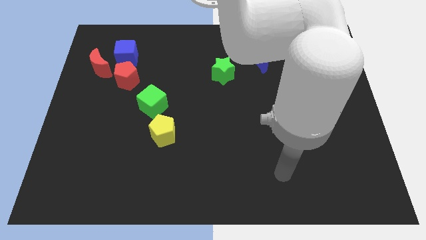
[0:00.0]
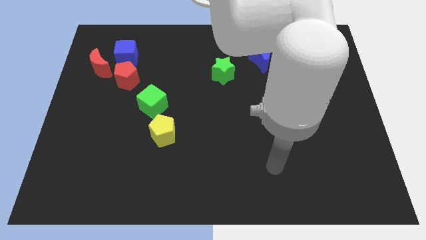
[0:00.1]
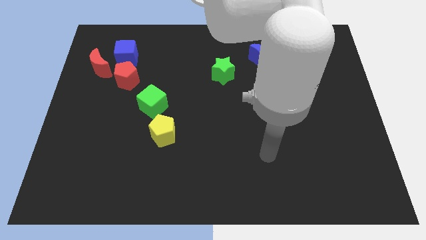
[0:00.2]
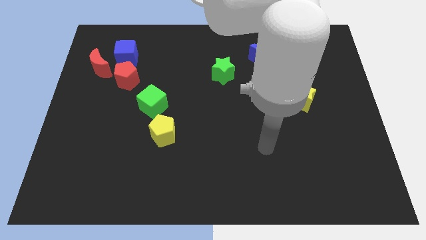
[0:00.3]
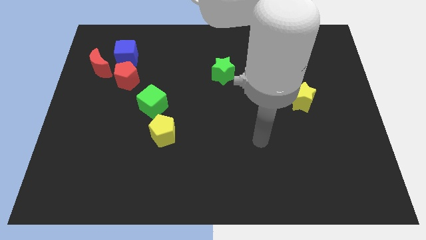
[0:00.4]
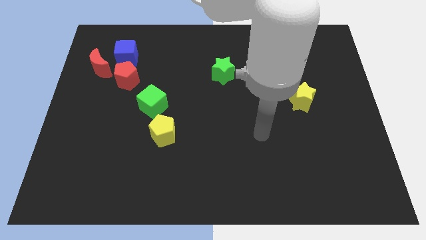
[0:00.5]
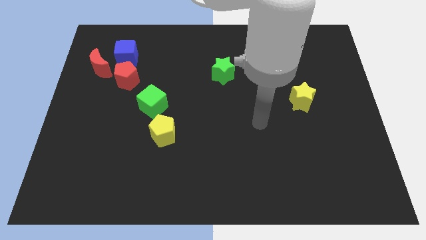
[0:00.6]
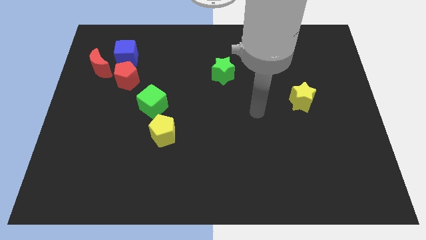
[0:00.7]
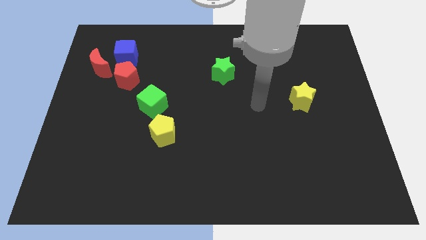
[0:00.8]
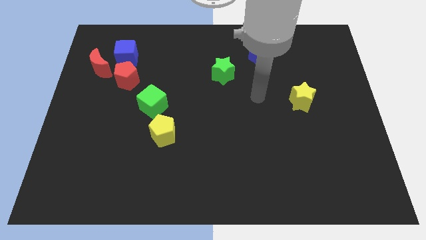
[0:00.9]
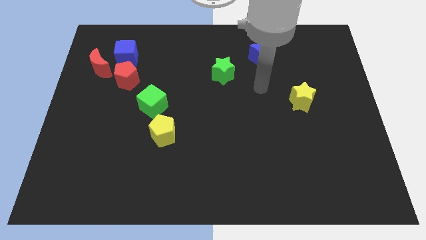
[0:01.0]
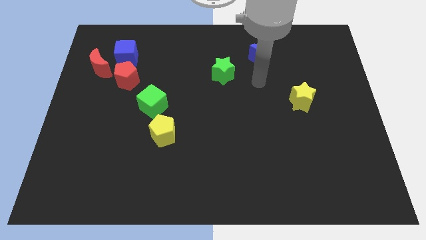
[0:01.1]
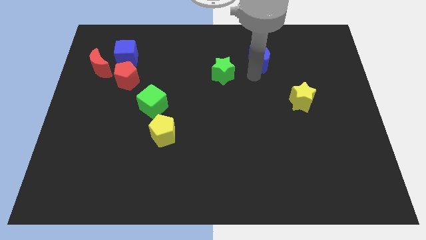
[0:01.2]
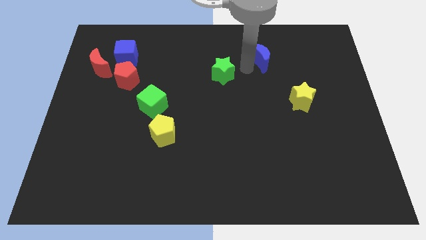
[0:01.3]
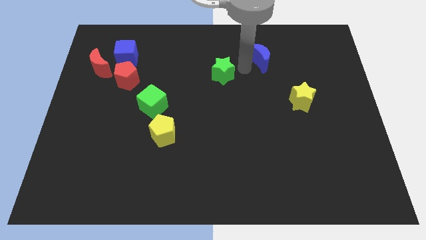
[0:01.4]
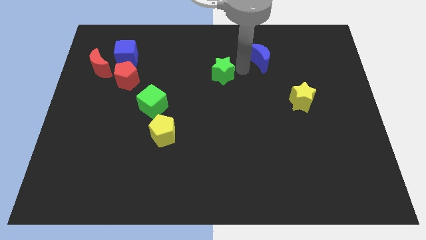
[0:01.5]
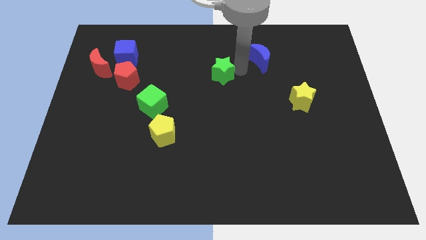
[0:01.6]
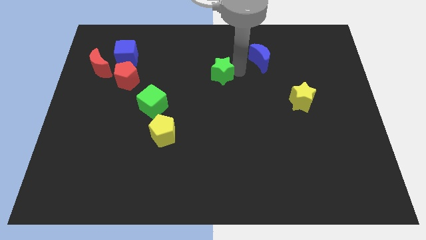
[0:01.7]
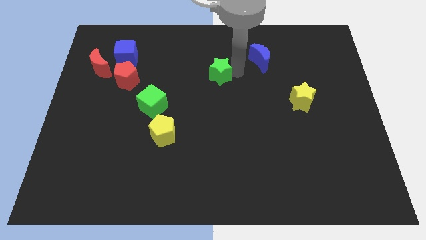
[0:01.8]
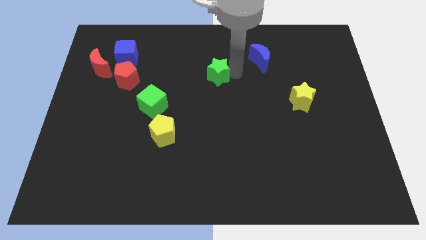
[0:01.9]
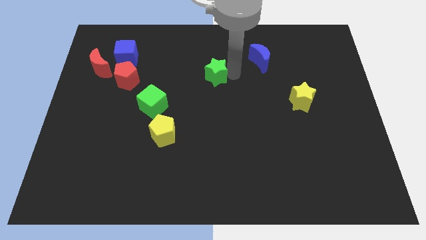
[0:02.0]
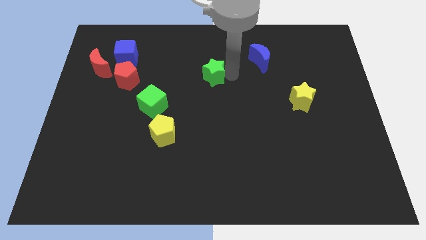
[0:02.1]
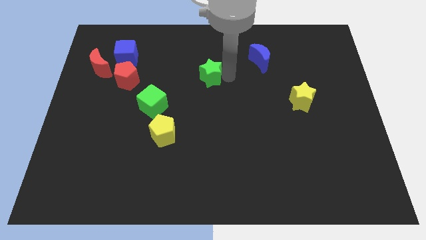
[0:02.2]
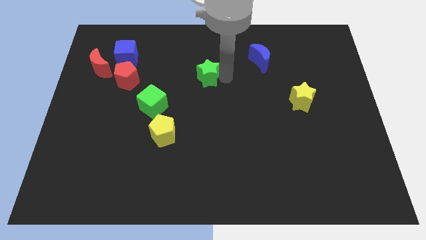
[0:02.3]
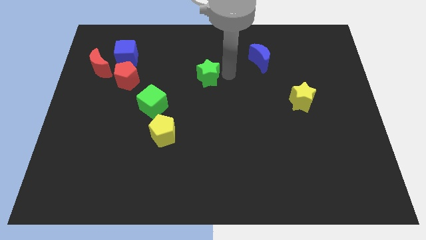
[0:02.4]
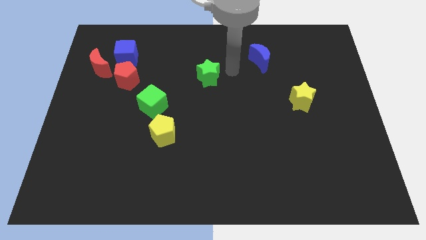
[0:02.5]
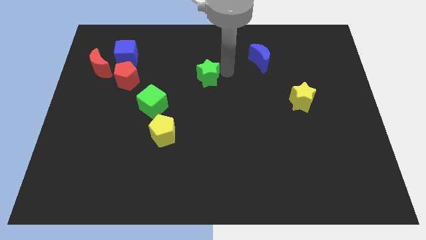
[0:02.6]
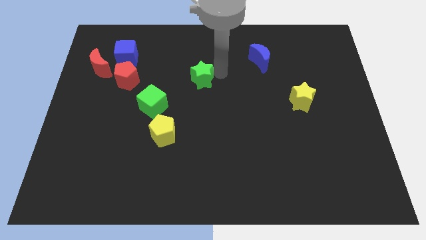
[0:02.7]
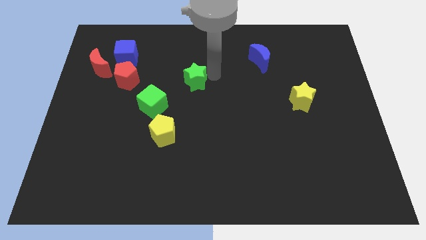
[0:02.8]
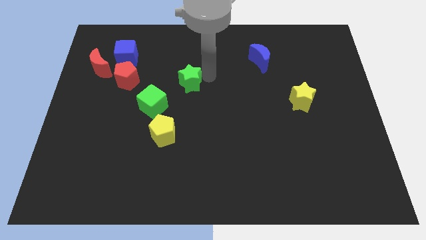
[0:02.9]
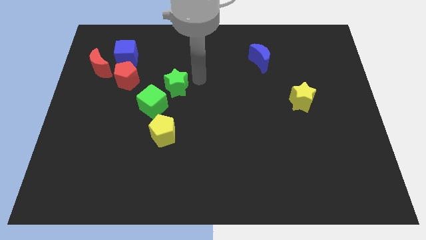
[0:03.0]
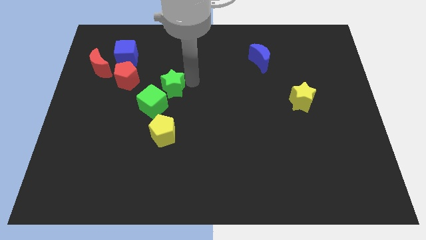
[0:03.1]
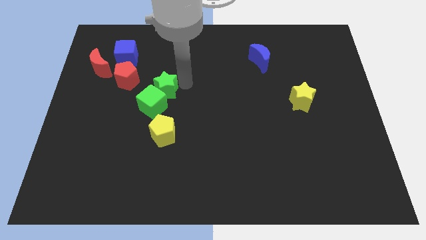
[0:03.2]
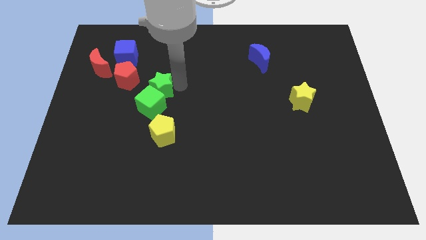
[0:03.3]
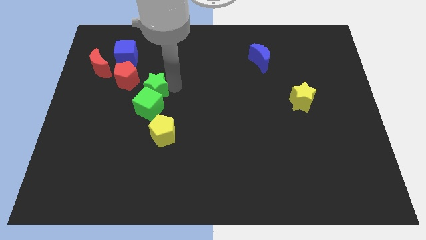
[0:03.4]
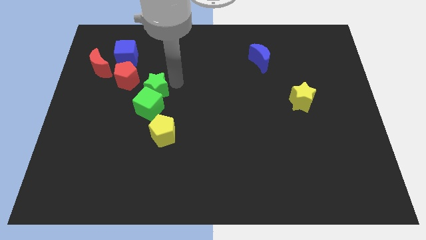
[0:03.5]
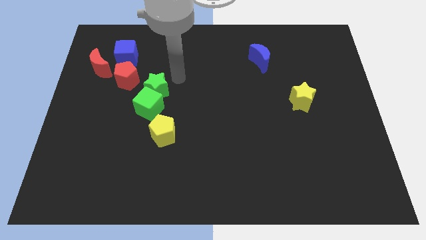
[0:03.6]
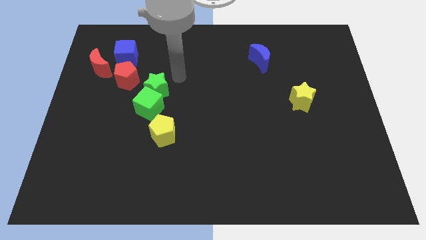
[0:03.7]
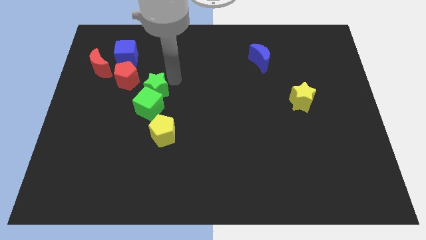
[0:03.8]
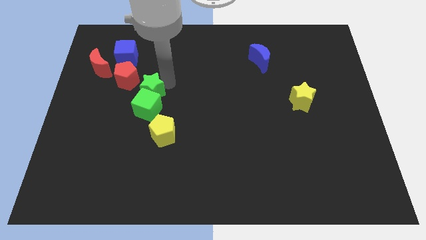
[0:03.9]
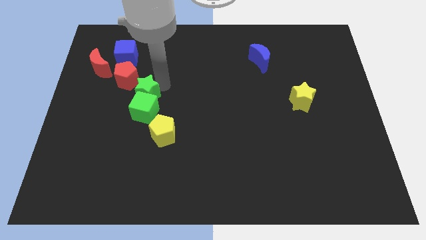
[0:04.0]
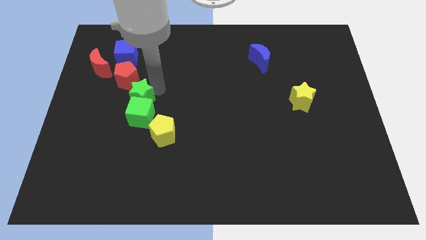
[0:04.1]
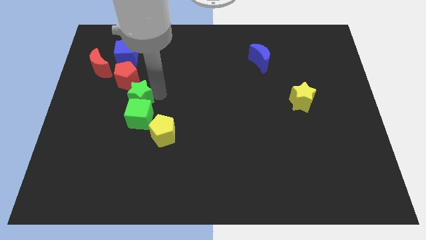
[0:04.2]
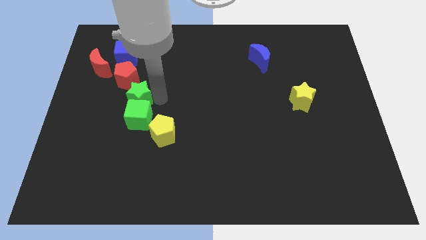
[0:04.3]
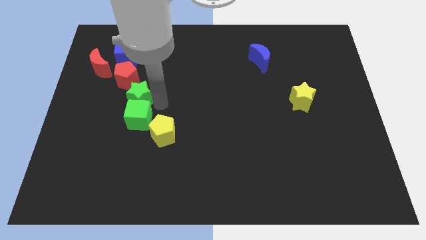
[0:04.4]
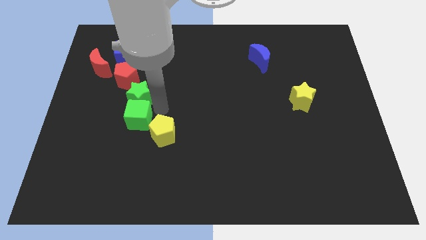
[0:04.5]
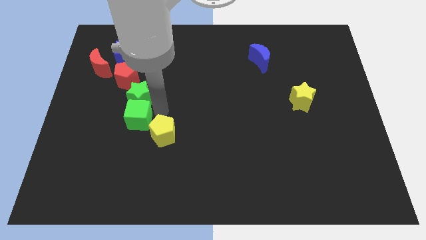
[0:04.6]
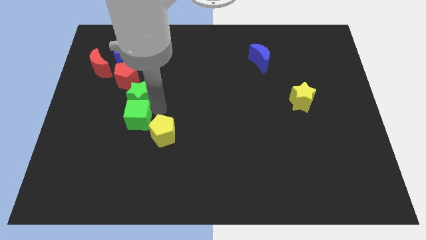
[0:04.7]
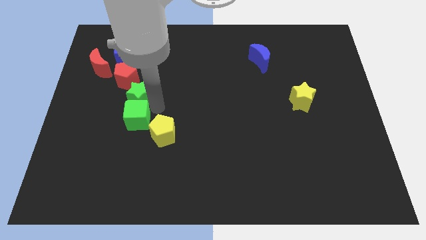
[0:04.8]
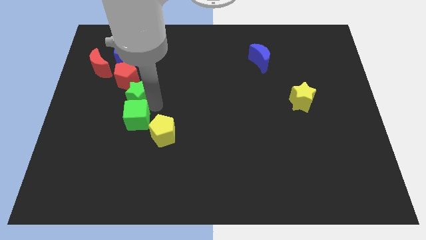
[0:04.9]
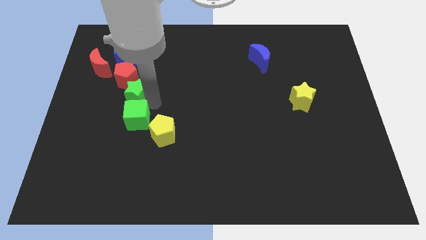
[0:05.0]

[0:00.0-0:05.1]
slide the green star below the blue cube

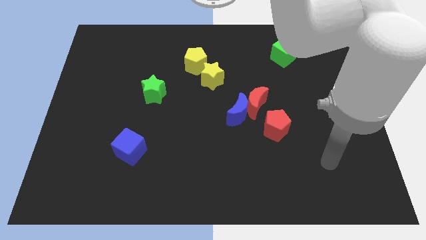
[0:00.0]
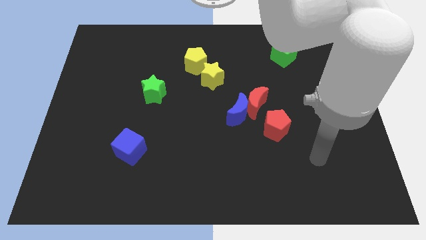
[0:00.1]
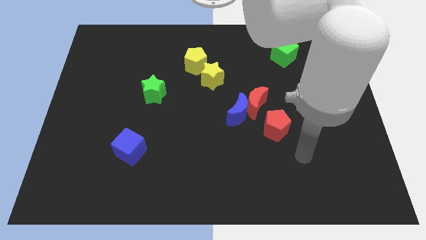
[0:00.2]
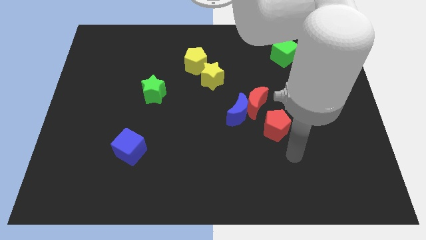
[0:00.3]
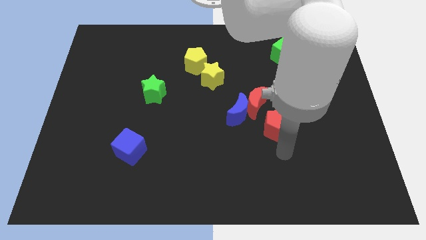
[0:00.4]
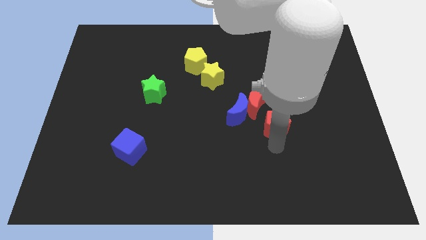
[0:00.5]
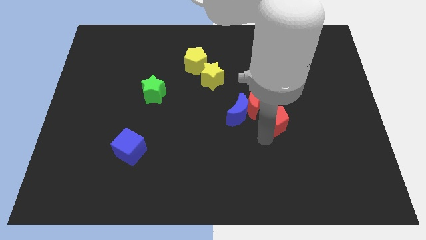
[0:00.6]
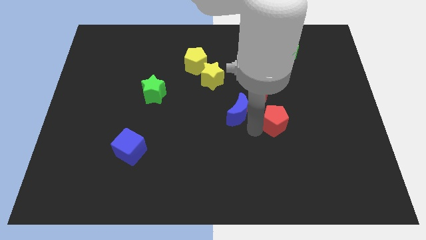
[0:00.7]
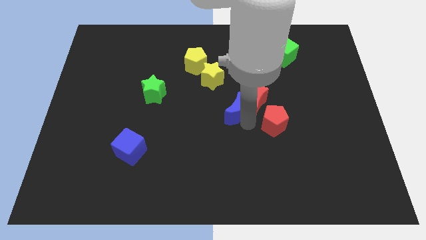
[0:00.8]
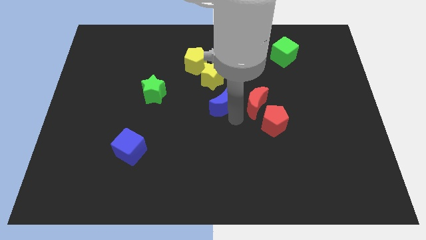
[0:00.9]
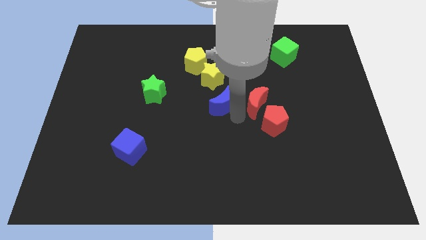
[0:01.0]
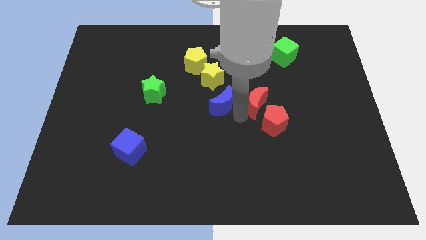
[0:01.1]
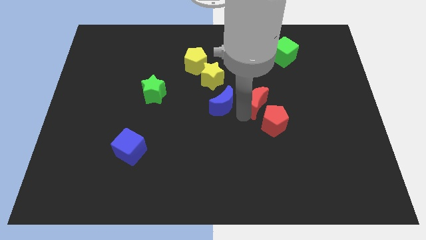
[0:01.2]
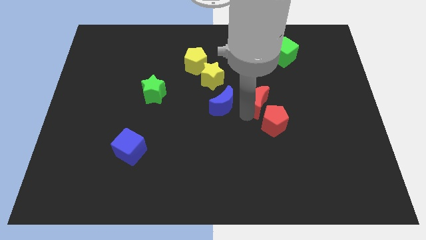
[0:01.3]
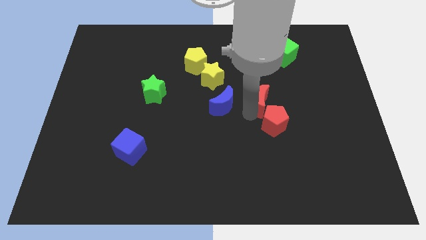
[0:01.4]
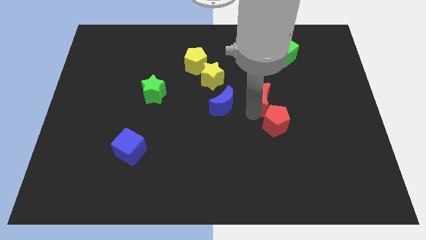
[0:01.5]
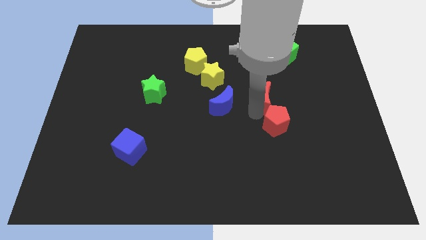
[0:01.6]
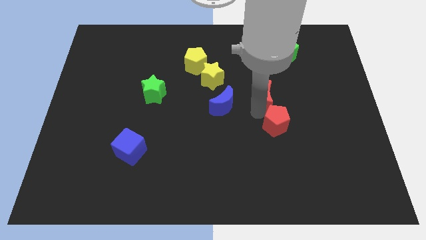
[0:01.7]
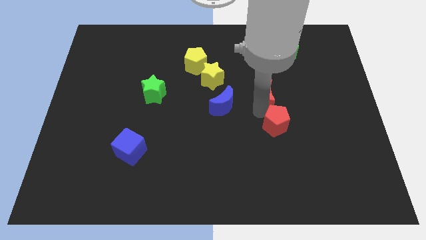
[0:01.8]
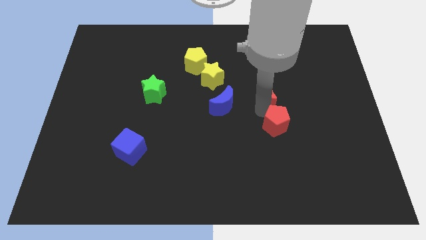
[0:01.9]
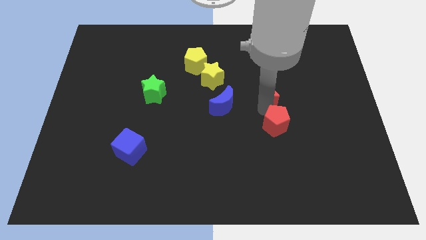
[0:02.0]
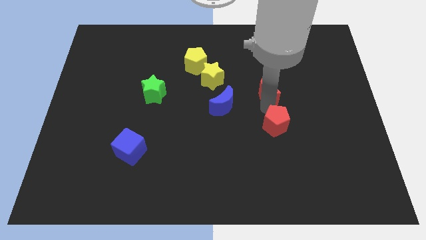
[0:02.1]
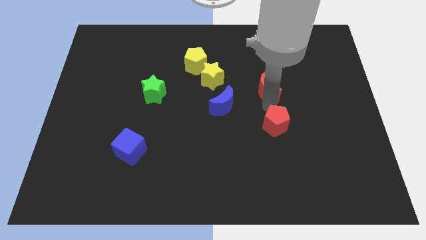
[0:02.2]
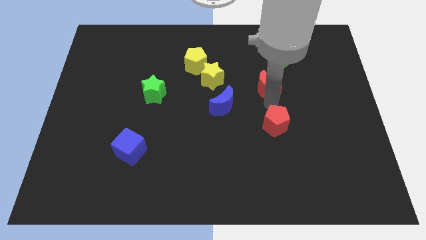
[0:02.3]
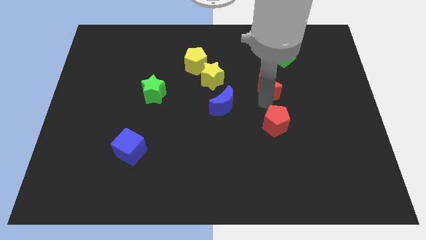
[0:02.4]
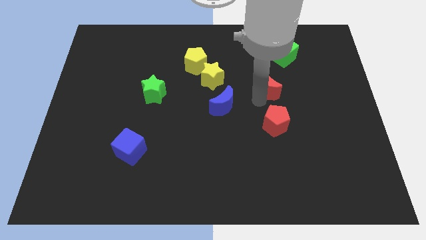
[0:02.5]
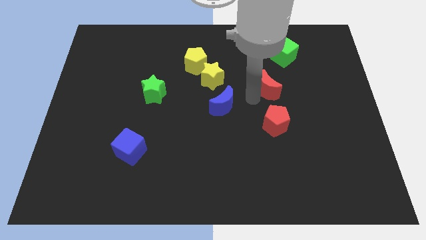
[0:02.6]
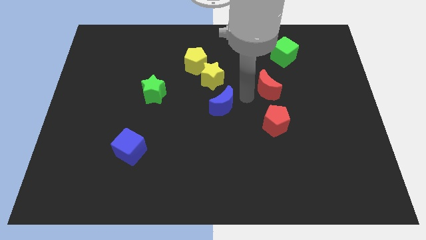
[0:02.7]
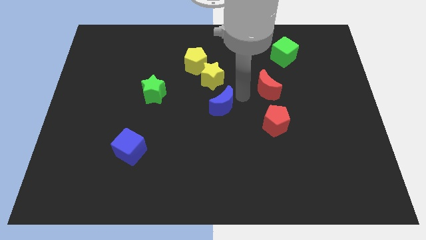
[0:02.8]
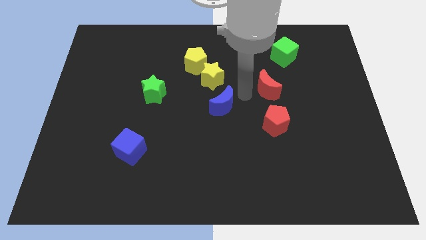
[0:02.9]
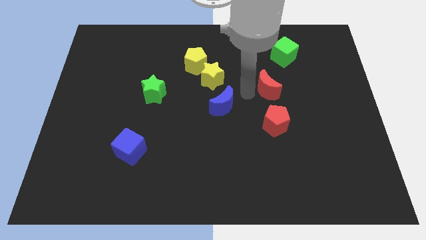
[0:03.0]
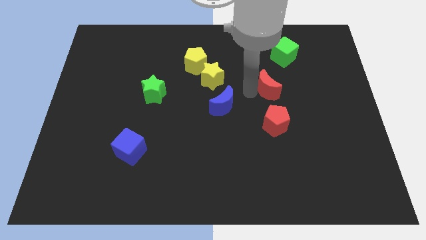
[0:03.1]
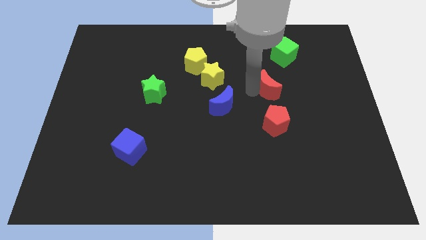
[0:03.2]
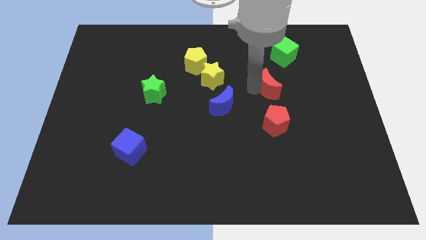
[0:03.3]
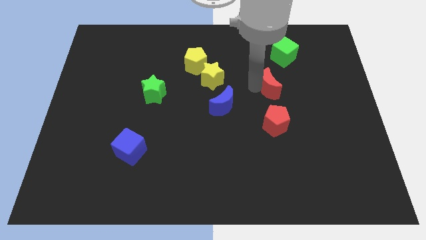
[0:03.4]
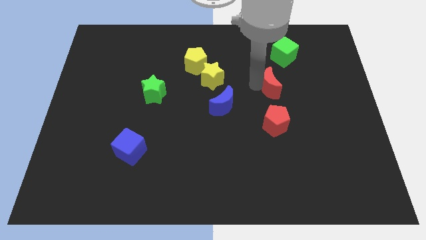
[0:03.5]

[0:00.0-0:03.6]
move the red moon below the green cube
